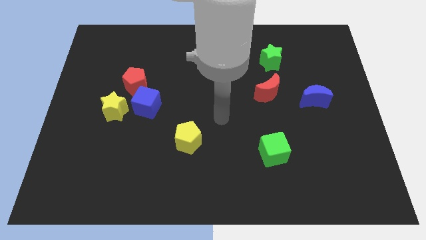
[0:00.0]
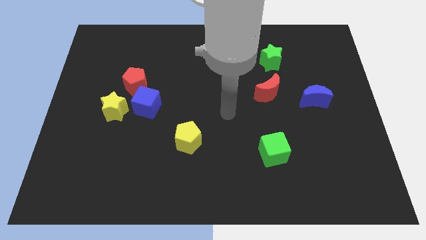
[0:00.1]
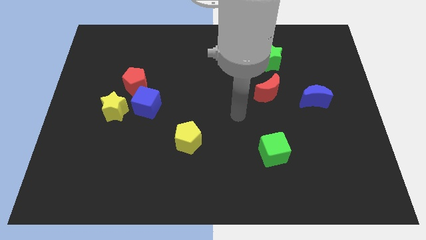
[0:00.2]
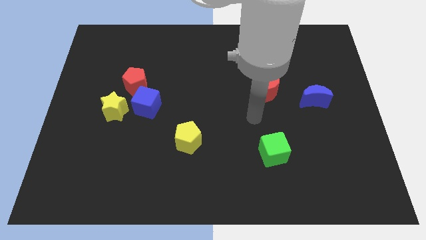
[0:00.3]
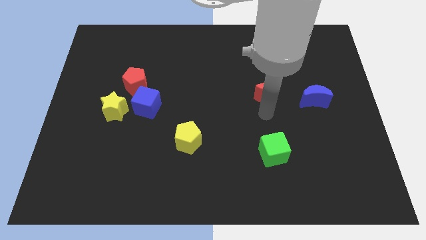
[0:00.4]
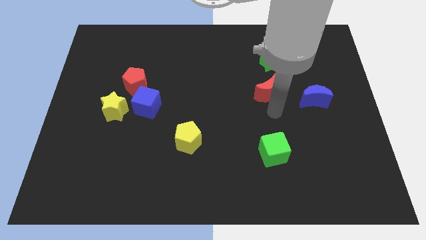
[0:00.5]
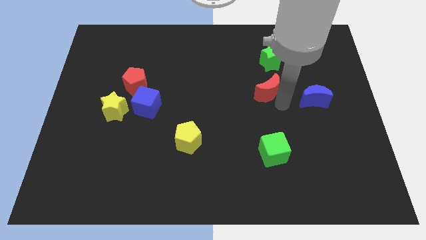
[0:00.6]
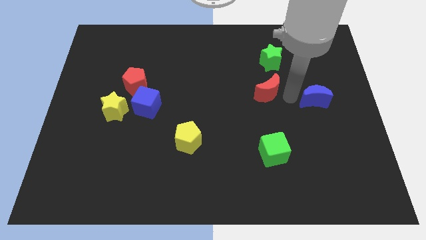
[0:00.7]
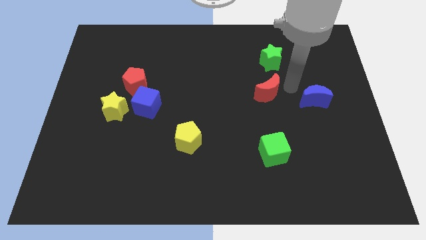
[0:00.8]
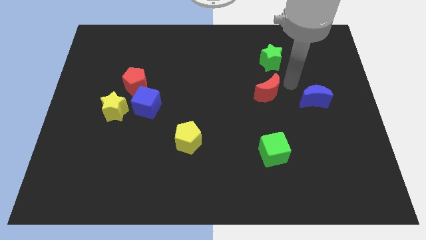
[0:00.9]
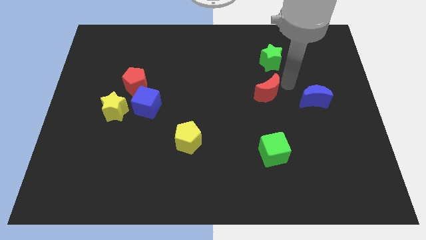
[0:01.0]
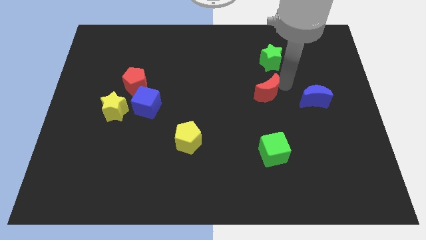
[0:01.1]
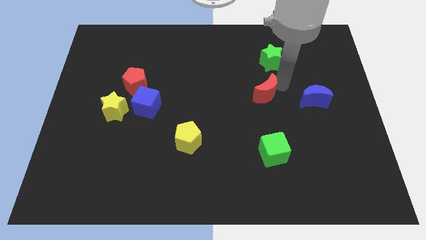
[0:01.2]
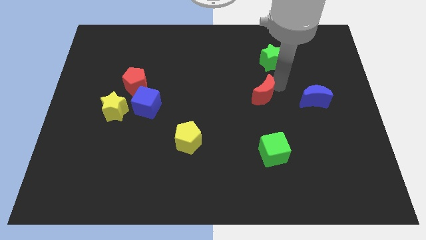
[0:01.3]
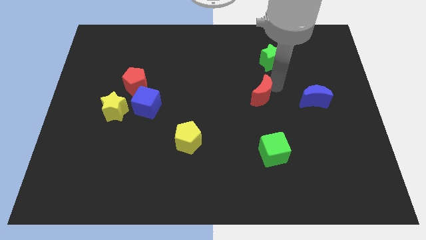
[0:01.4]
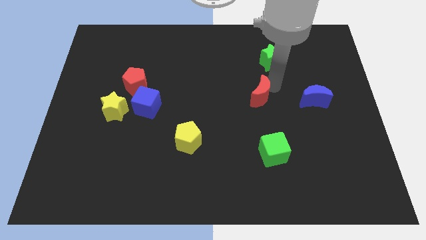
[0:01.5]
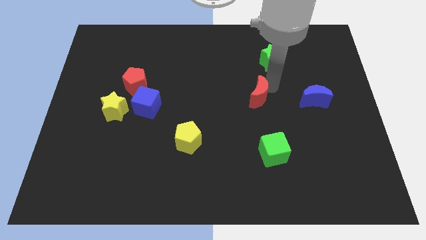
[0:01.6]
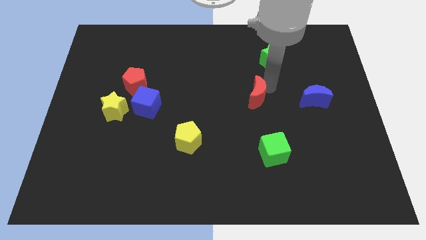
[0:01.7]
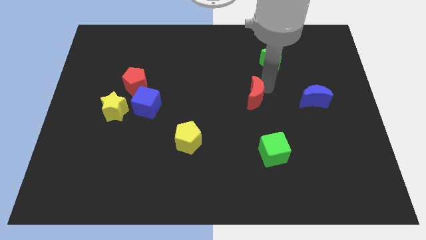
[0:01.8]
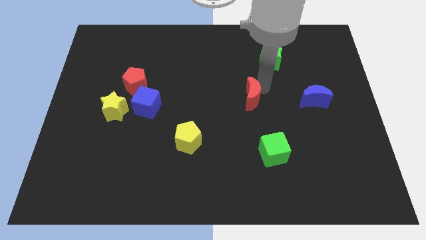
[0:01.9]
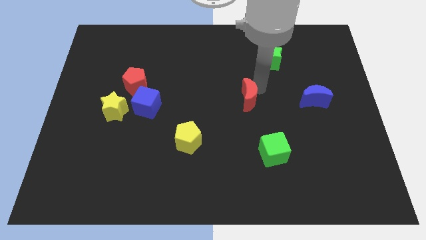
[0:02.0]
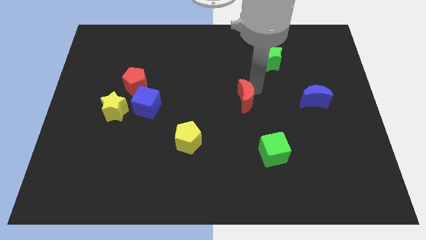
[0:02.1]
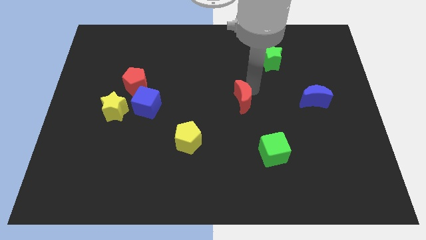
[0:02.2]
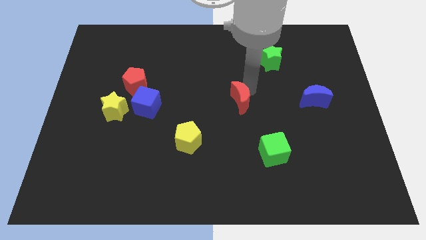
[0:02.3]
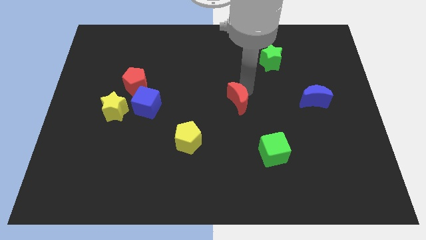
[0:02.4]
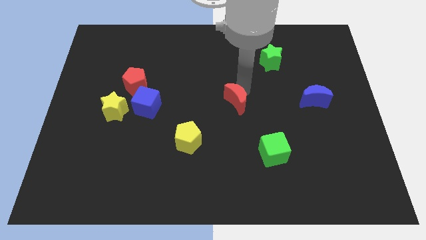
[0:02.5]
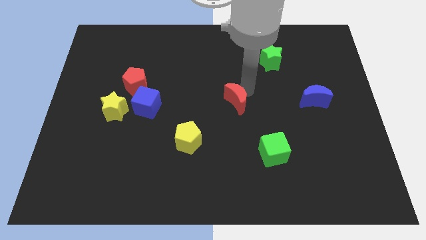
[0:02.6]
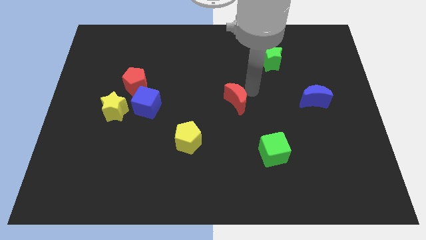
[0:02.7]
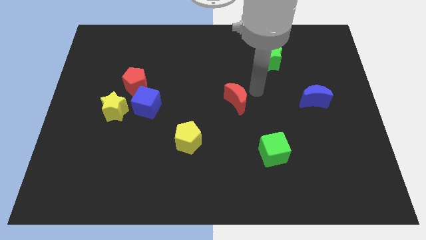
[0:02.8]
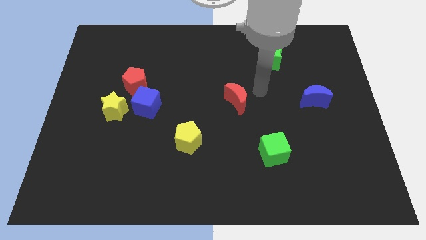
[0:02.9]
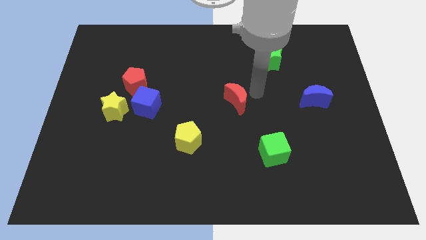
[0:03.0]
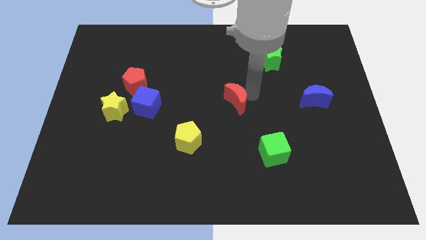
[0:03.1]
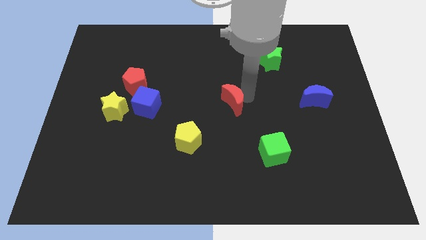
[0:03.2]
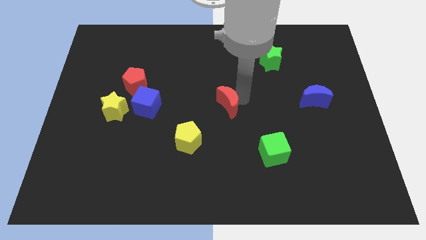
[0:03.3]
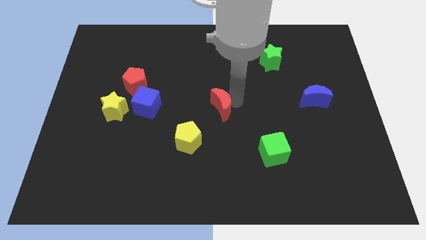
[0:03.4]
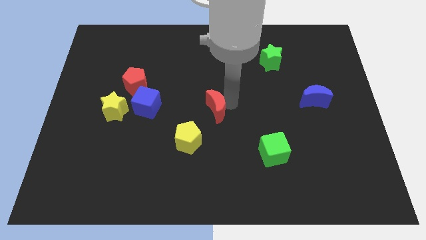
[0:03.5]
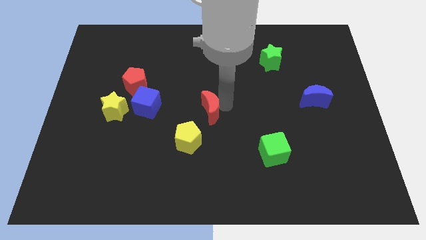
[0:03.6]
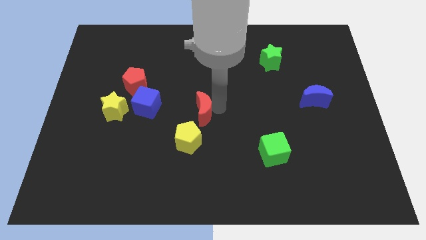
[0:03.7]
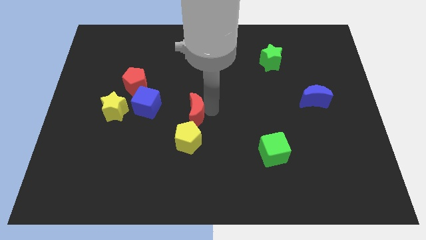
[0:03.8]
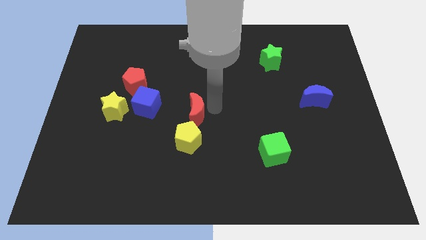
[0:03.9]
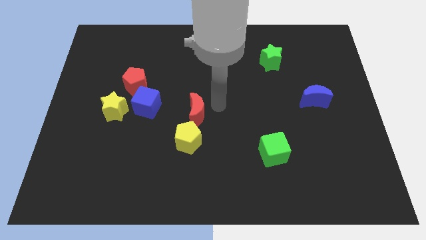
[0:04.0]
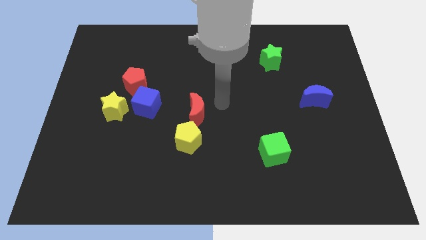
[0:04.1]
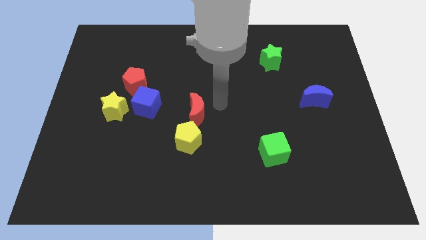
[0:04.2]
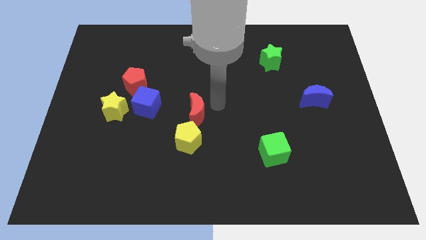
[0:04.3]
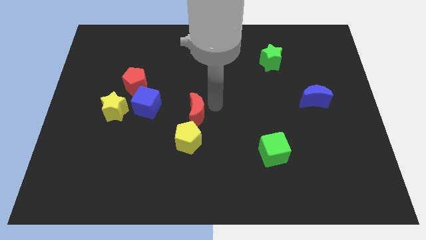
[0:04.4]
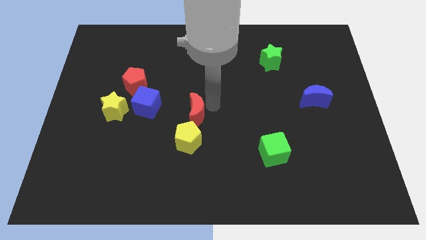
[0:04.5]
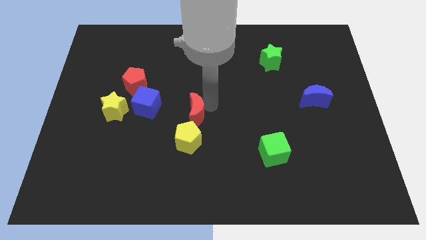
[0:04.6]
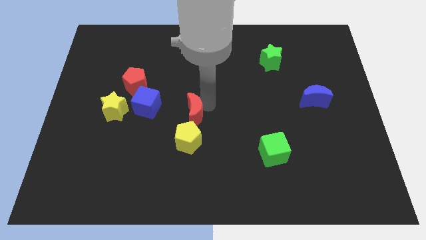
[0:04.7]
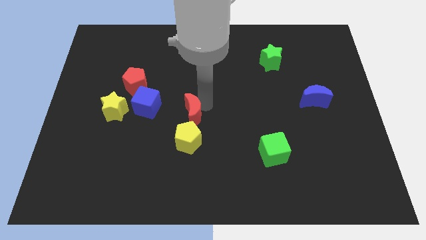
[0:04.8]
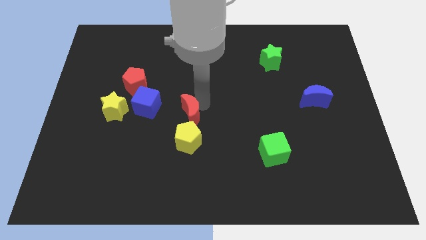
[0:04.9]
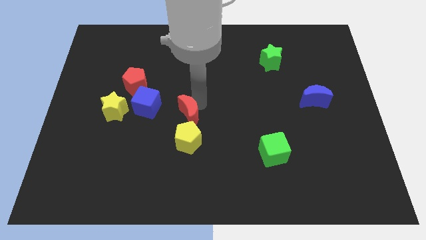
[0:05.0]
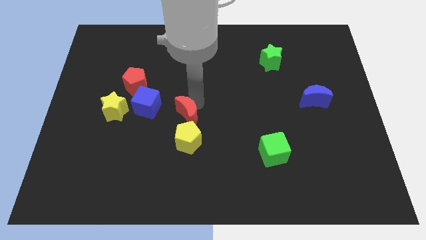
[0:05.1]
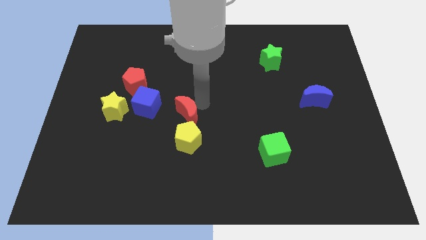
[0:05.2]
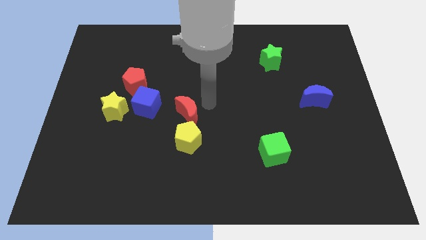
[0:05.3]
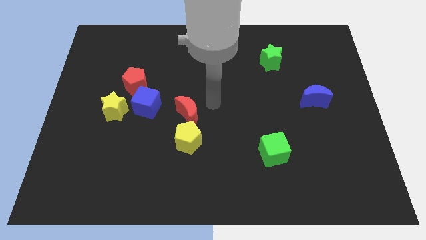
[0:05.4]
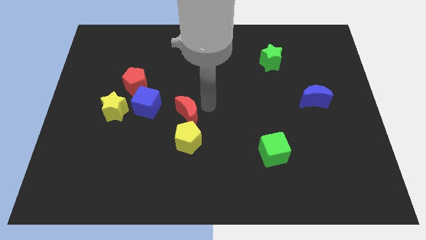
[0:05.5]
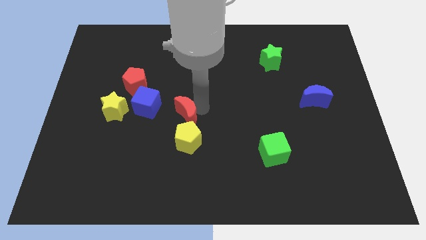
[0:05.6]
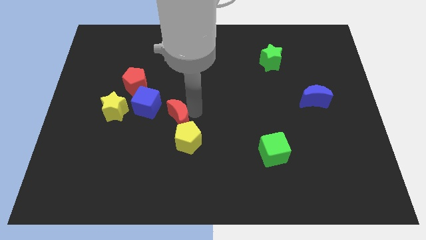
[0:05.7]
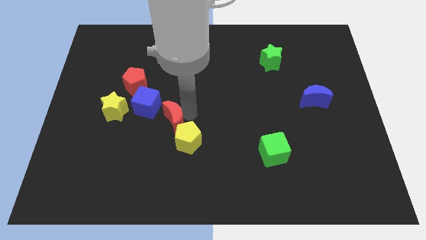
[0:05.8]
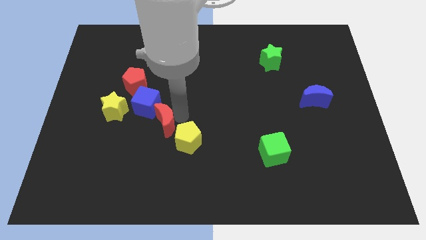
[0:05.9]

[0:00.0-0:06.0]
slide the red moon below the blue cube

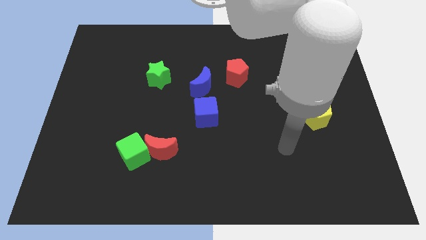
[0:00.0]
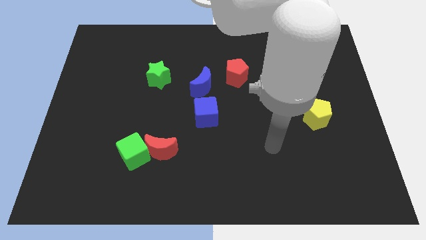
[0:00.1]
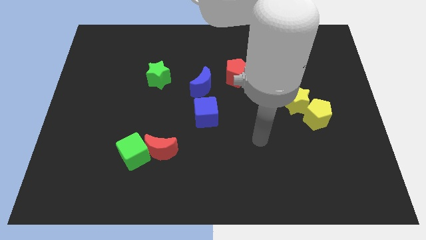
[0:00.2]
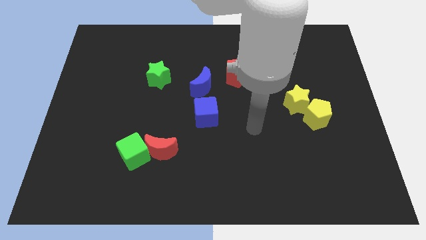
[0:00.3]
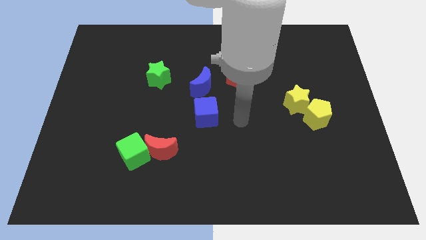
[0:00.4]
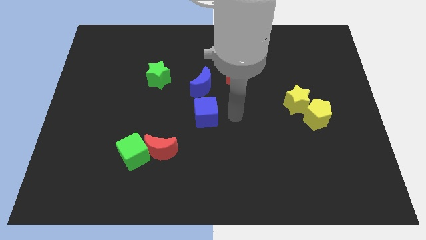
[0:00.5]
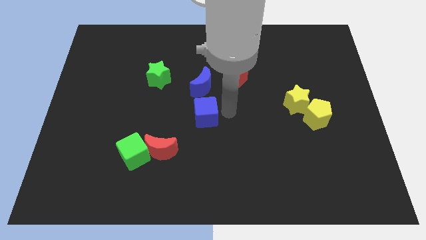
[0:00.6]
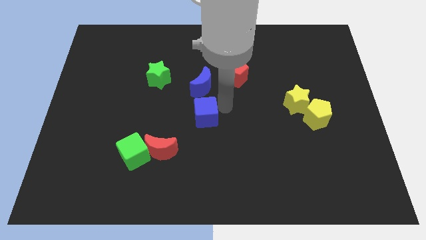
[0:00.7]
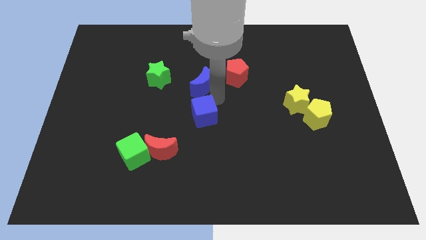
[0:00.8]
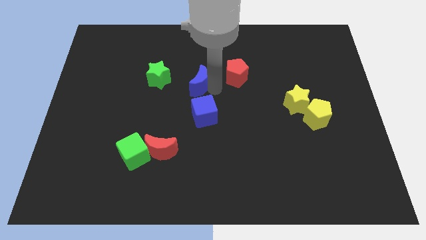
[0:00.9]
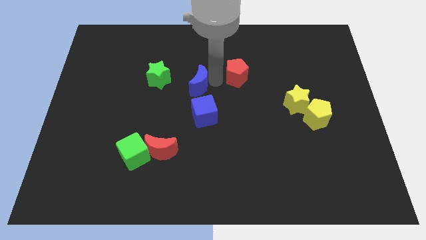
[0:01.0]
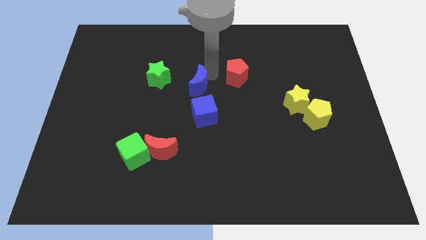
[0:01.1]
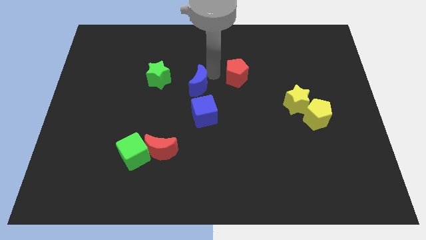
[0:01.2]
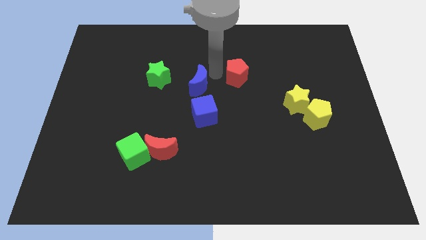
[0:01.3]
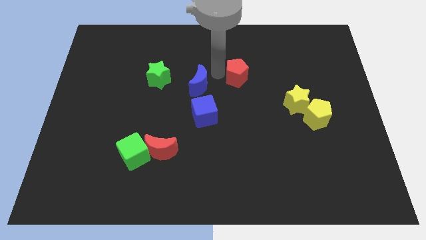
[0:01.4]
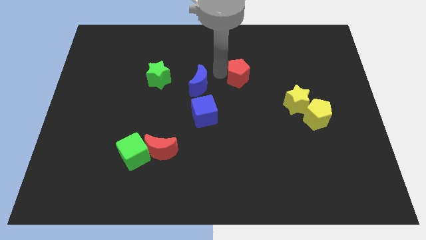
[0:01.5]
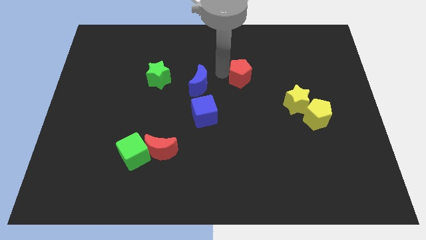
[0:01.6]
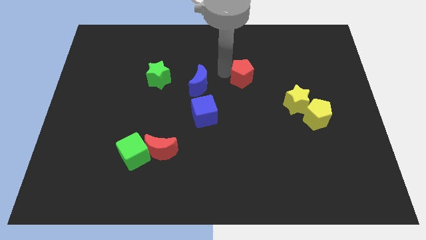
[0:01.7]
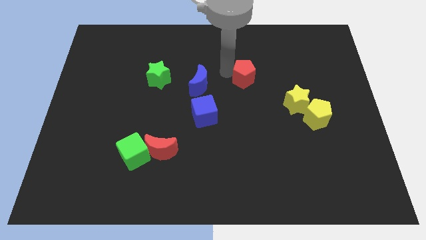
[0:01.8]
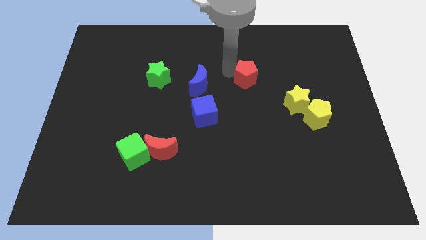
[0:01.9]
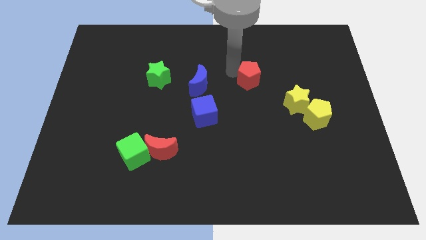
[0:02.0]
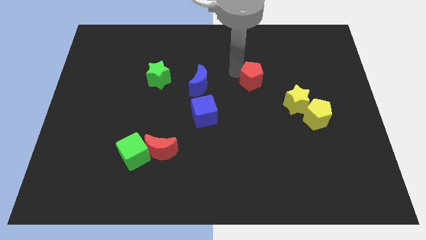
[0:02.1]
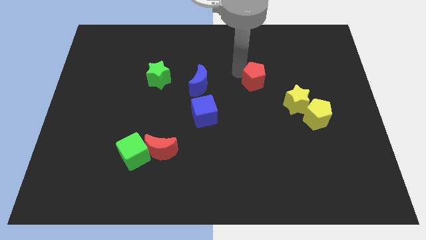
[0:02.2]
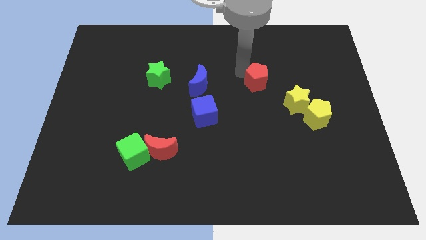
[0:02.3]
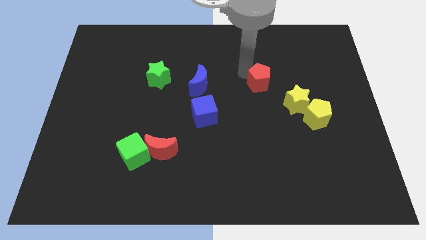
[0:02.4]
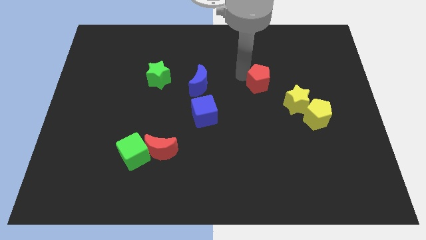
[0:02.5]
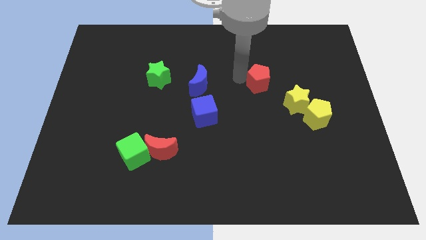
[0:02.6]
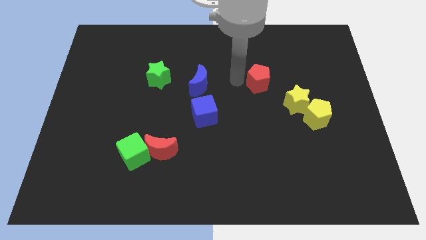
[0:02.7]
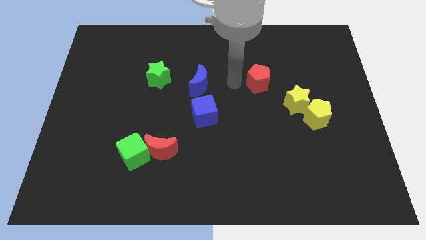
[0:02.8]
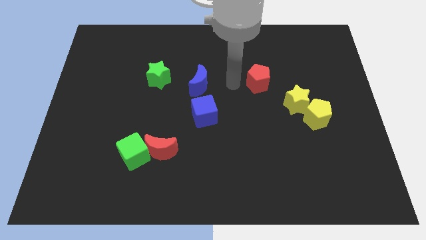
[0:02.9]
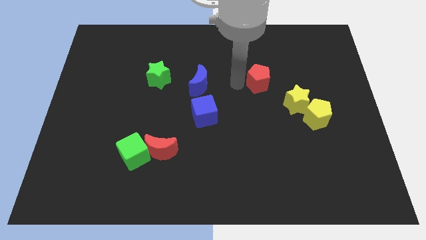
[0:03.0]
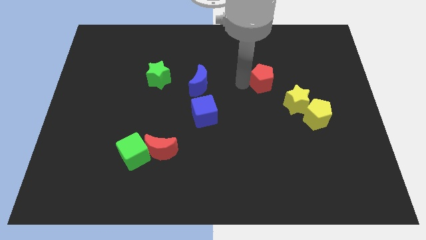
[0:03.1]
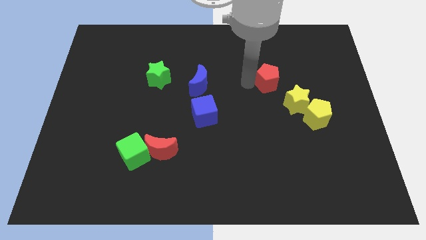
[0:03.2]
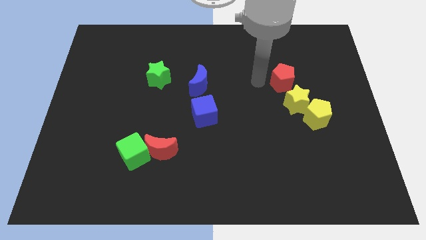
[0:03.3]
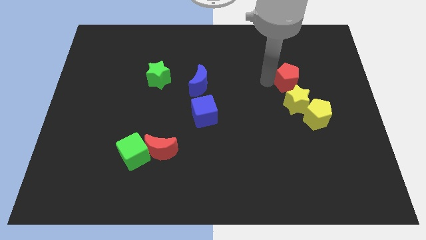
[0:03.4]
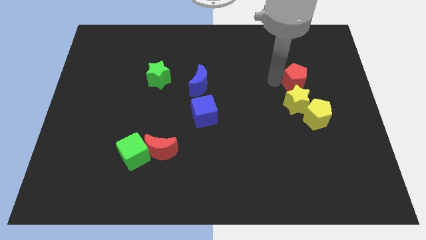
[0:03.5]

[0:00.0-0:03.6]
push the red pentagon diagonally up and to the right of the yellow star
